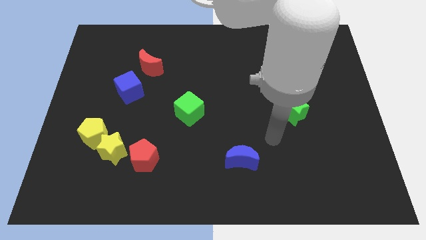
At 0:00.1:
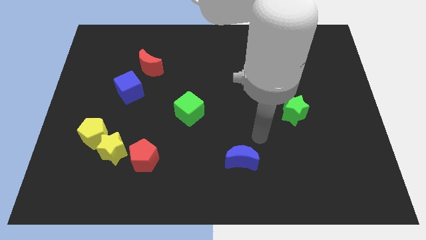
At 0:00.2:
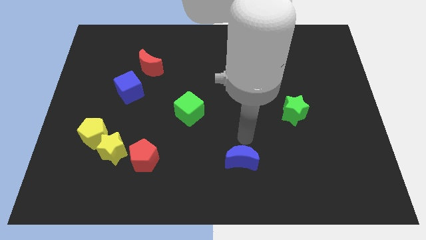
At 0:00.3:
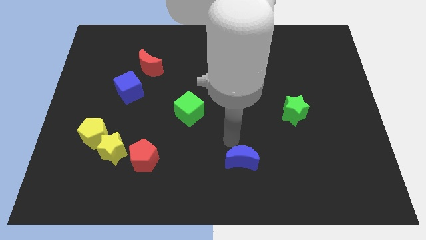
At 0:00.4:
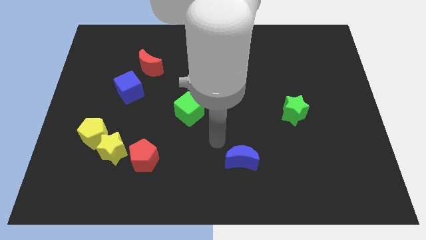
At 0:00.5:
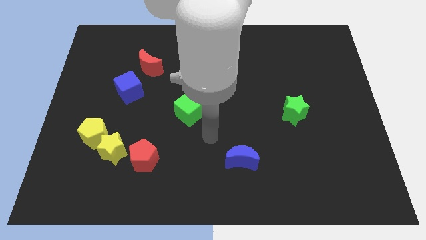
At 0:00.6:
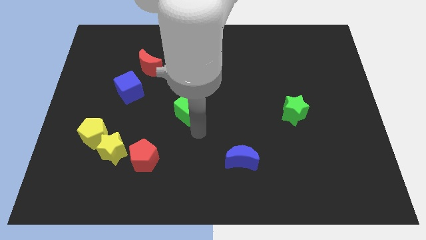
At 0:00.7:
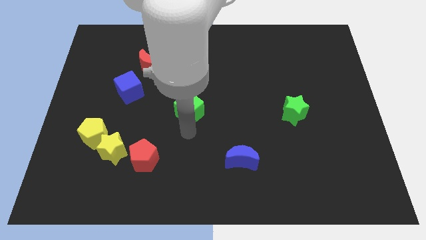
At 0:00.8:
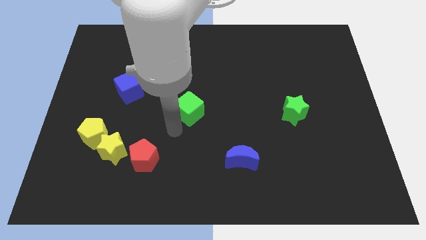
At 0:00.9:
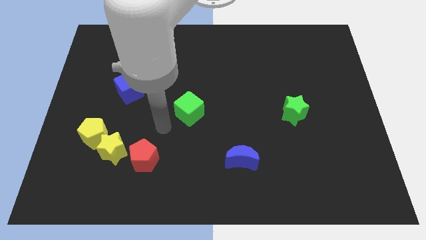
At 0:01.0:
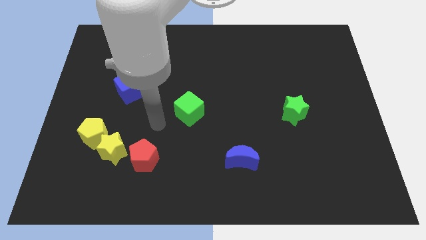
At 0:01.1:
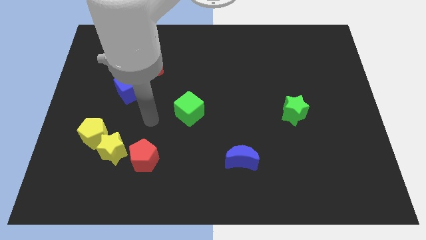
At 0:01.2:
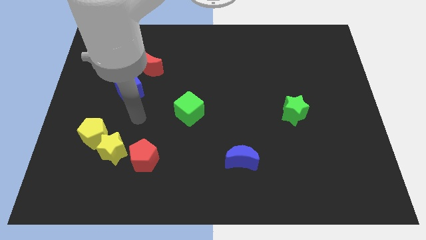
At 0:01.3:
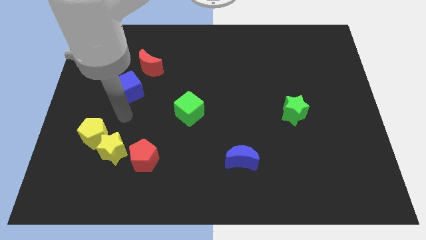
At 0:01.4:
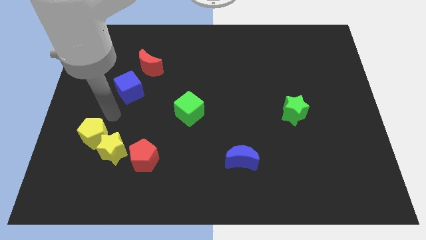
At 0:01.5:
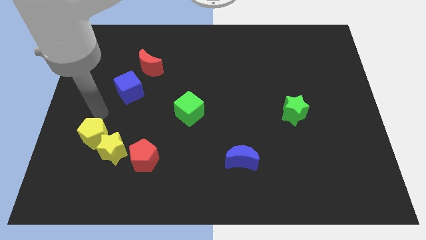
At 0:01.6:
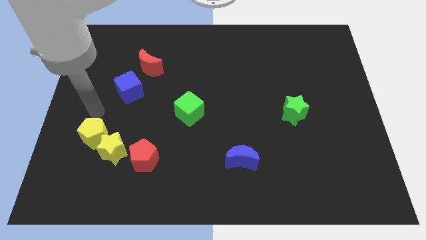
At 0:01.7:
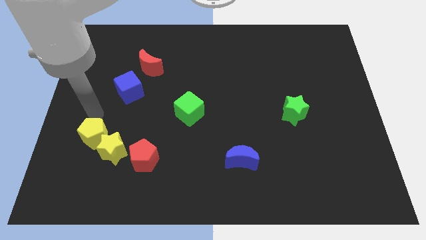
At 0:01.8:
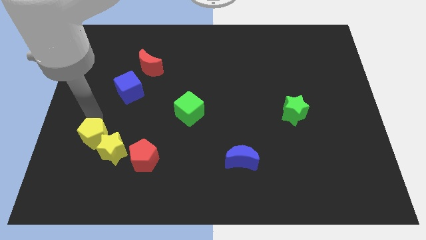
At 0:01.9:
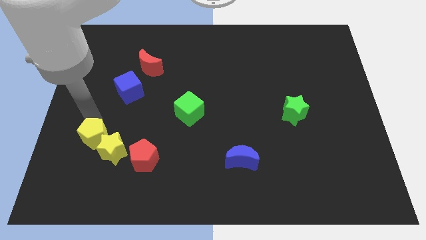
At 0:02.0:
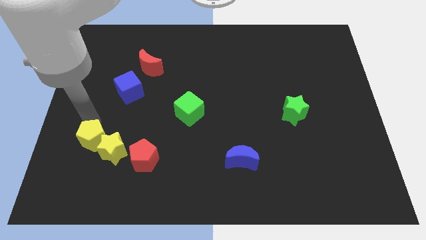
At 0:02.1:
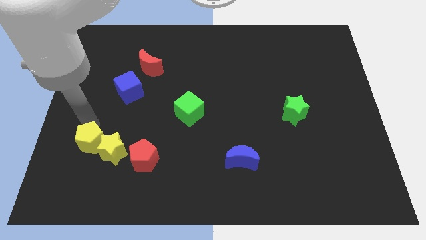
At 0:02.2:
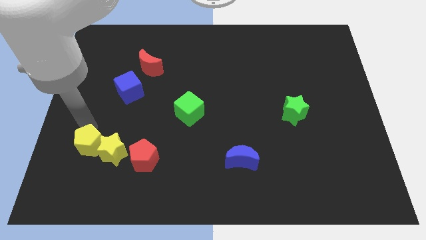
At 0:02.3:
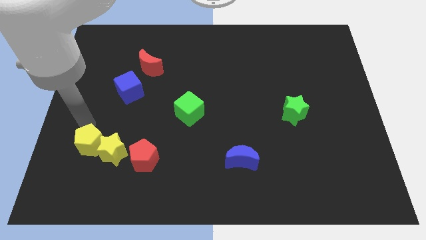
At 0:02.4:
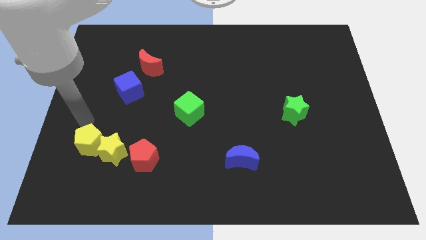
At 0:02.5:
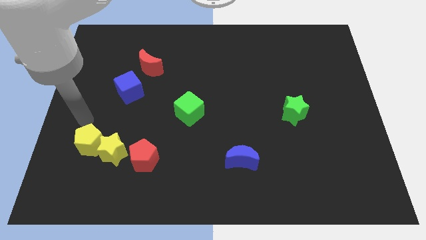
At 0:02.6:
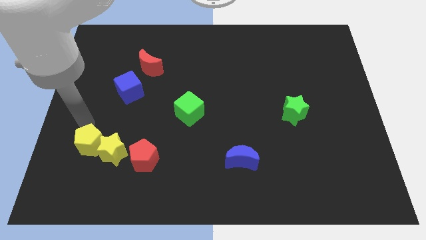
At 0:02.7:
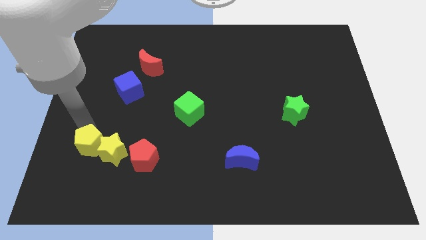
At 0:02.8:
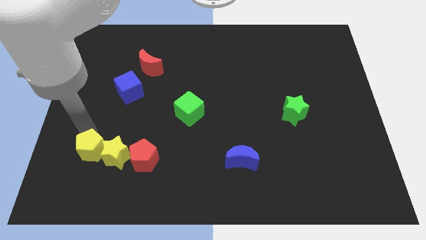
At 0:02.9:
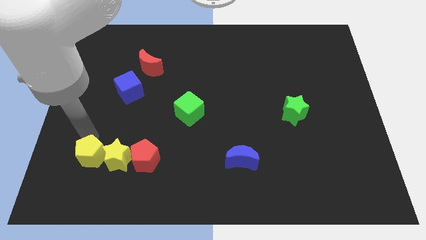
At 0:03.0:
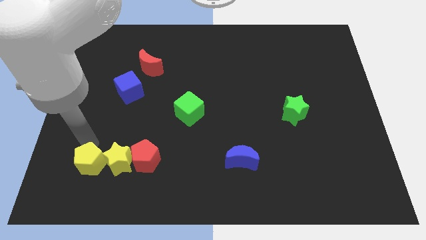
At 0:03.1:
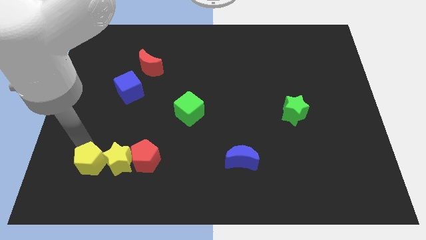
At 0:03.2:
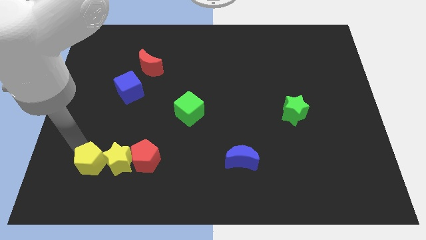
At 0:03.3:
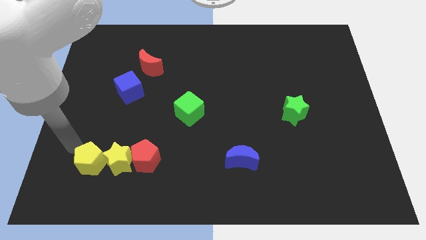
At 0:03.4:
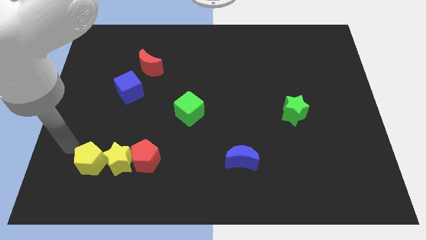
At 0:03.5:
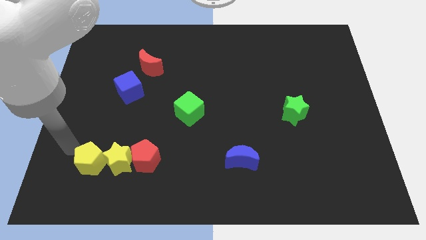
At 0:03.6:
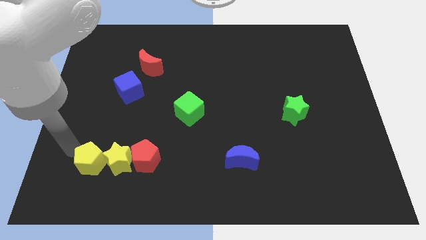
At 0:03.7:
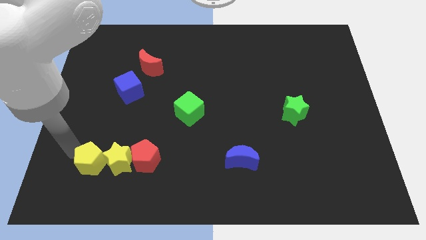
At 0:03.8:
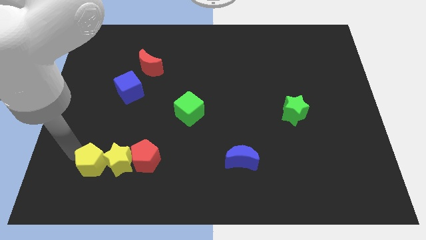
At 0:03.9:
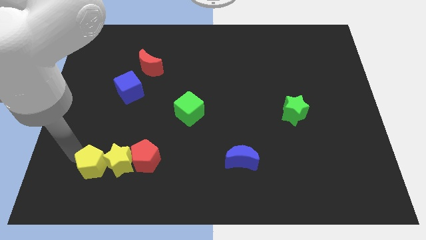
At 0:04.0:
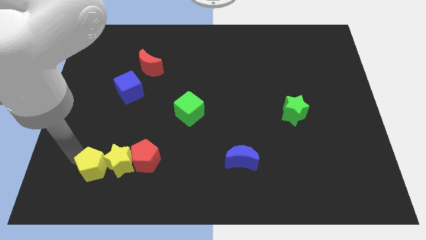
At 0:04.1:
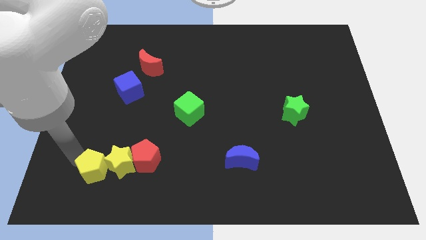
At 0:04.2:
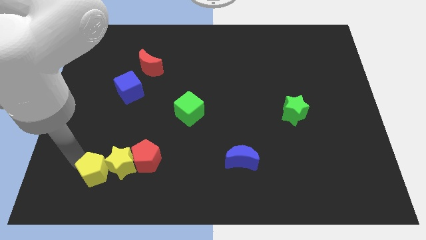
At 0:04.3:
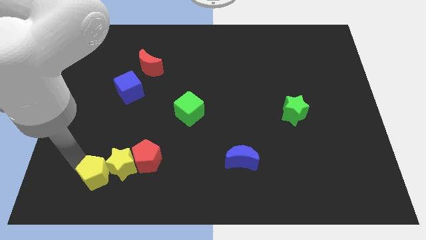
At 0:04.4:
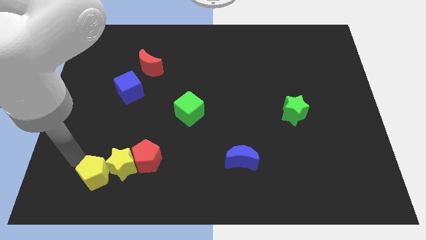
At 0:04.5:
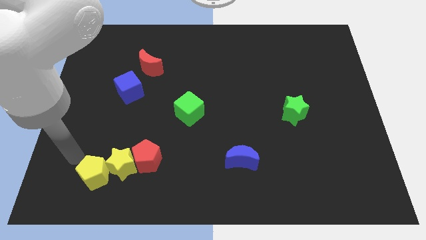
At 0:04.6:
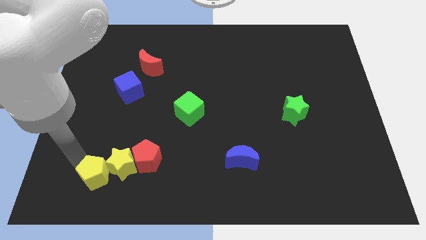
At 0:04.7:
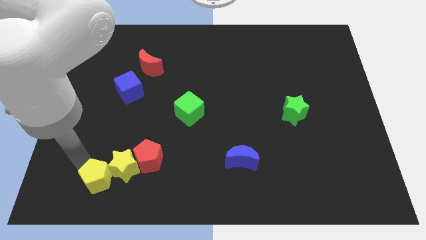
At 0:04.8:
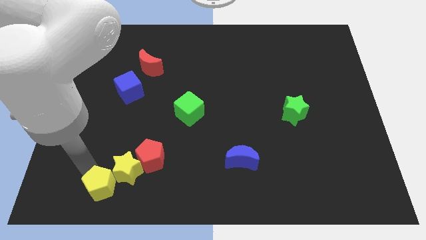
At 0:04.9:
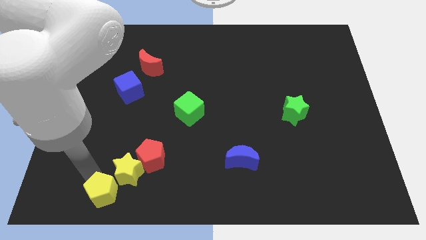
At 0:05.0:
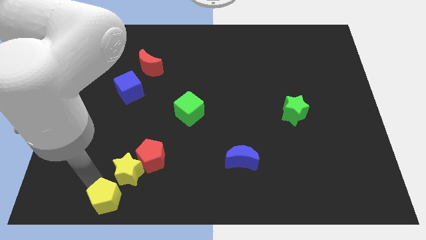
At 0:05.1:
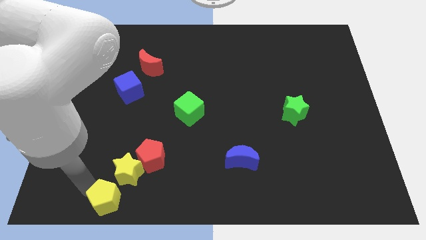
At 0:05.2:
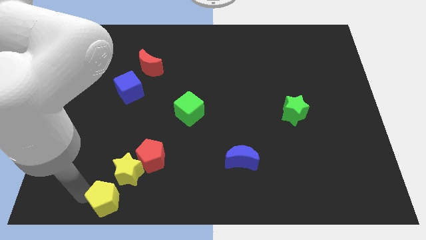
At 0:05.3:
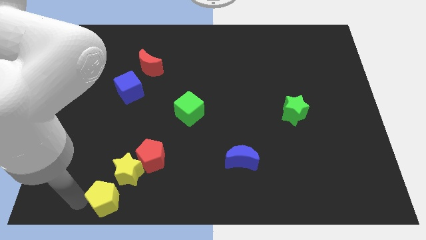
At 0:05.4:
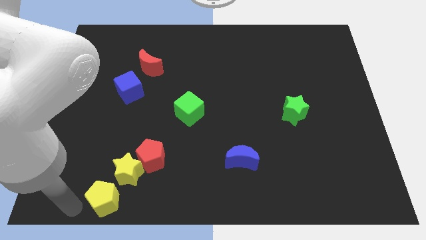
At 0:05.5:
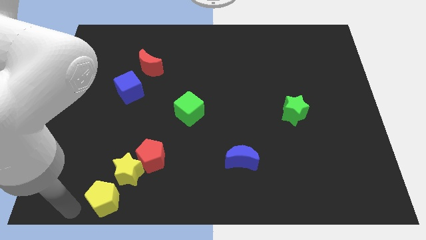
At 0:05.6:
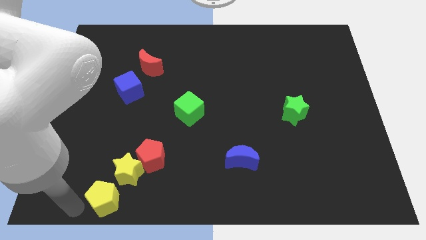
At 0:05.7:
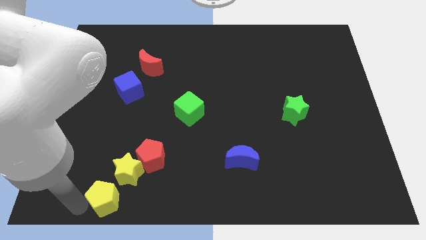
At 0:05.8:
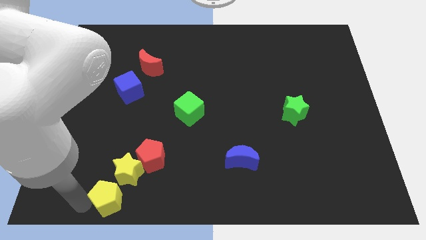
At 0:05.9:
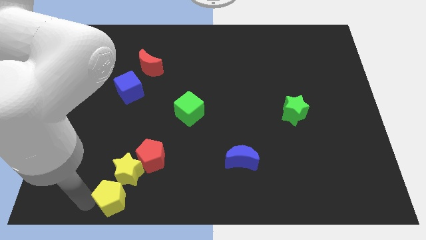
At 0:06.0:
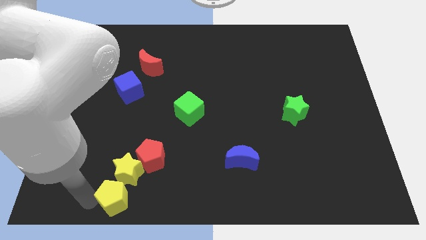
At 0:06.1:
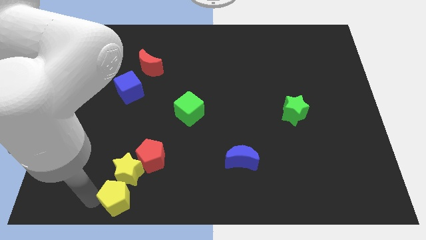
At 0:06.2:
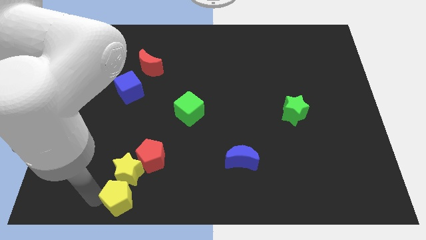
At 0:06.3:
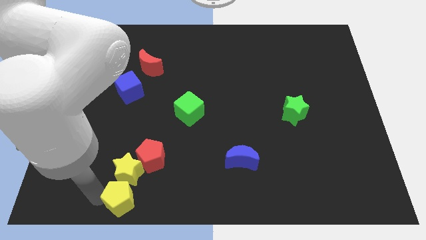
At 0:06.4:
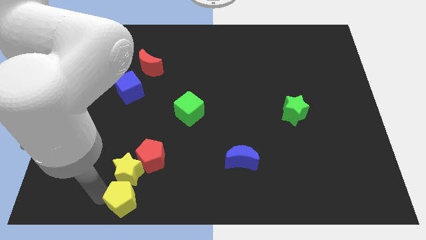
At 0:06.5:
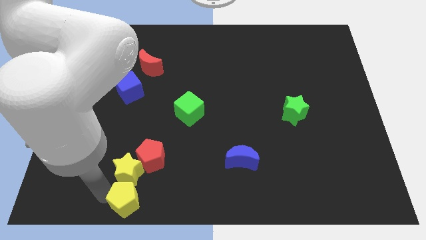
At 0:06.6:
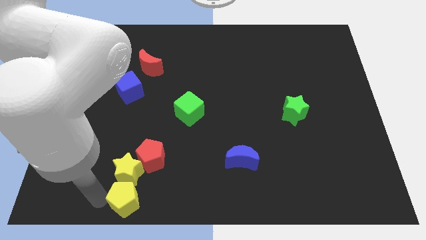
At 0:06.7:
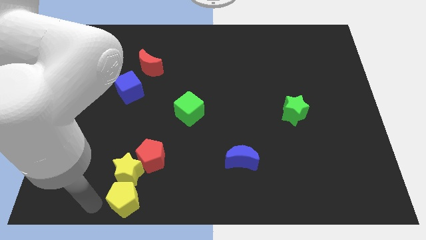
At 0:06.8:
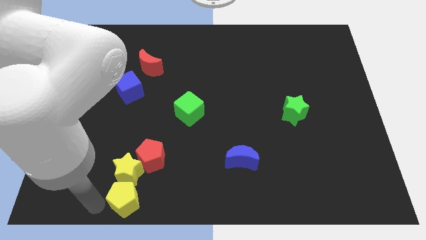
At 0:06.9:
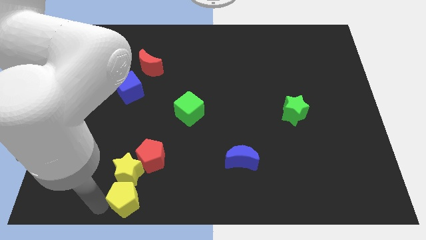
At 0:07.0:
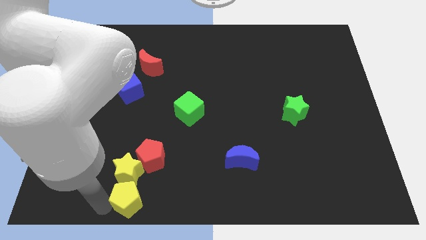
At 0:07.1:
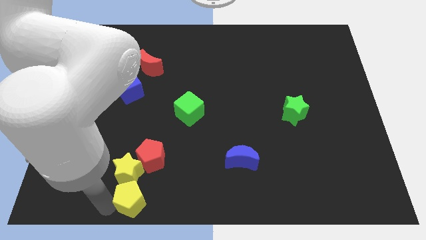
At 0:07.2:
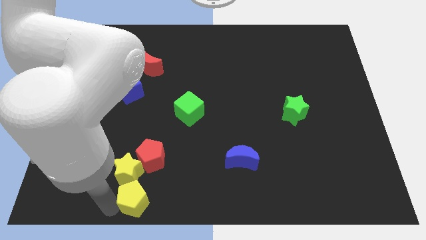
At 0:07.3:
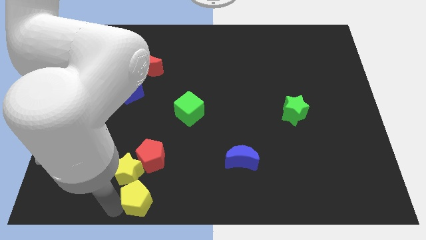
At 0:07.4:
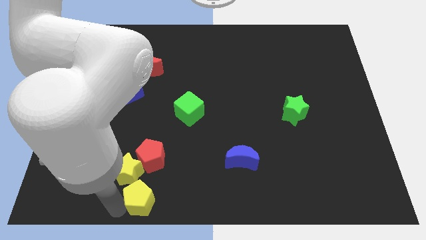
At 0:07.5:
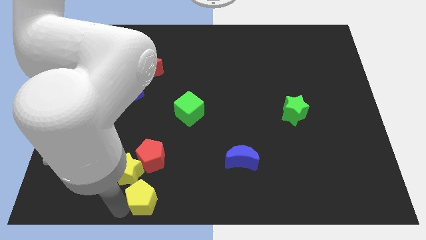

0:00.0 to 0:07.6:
slide the yellow pentagon to the bottom side

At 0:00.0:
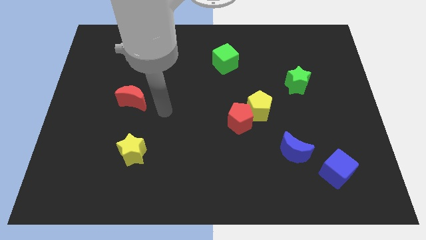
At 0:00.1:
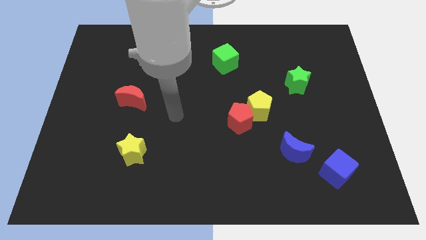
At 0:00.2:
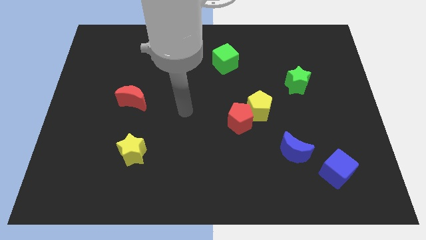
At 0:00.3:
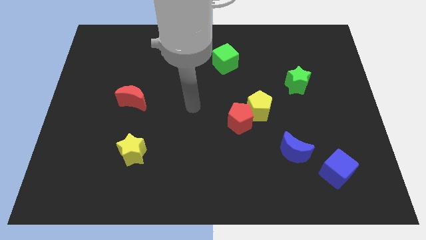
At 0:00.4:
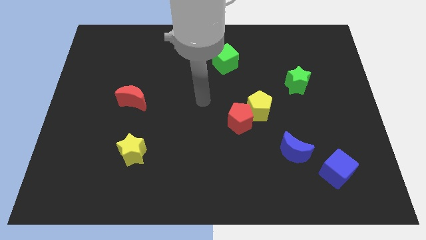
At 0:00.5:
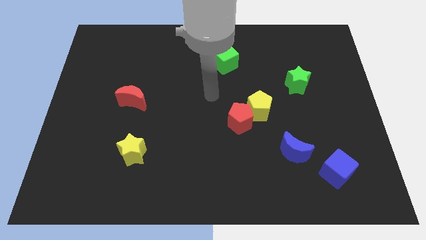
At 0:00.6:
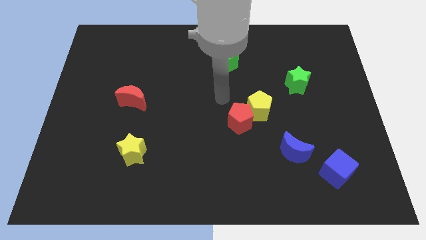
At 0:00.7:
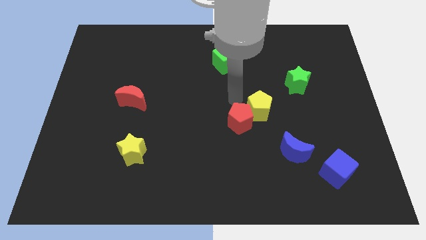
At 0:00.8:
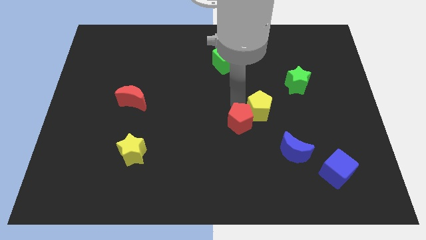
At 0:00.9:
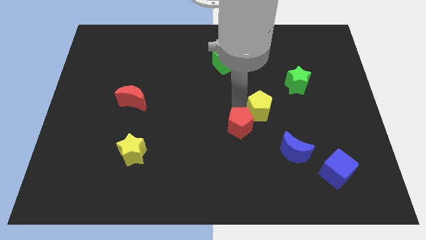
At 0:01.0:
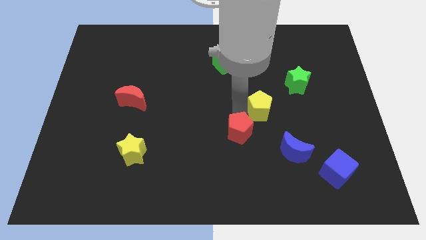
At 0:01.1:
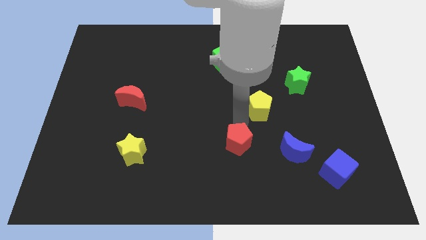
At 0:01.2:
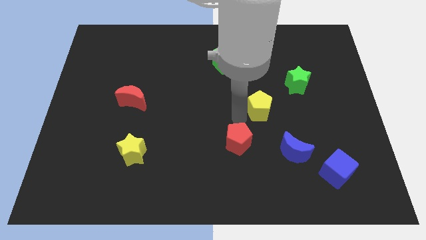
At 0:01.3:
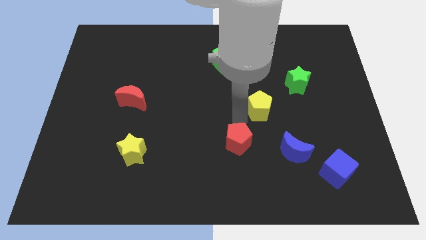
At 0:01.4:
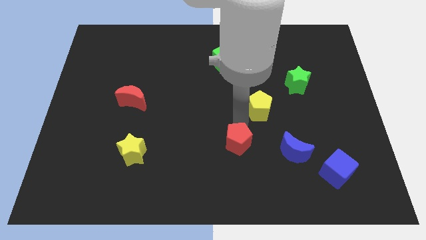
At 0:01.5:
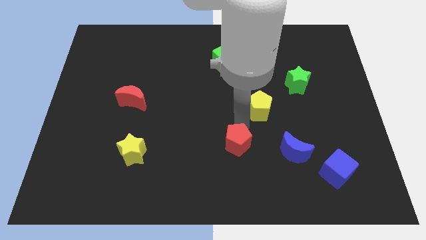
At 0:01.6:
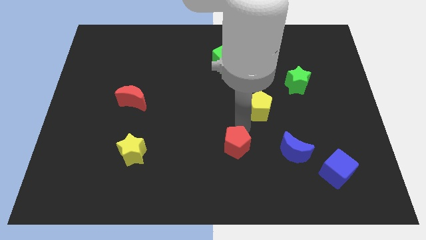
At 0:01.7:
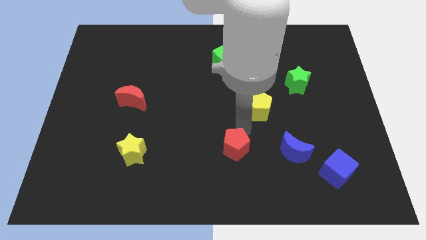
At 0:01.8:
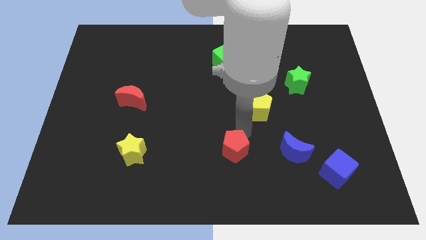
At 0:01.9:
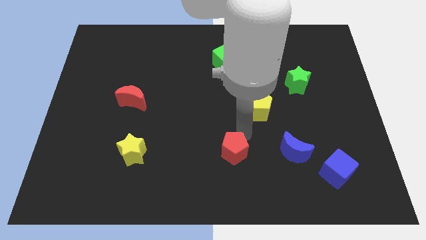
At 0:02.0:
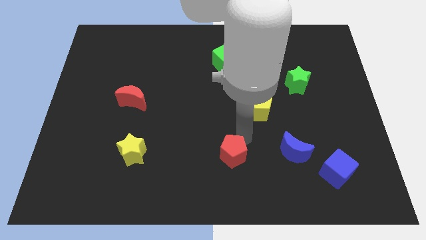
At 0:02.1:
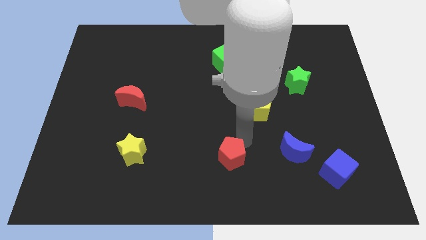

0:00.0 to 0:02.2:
put the red pentagon to the bottom
